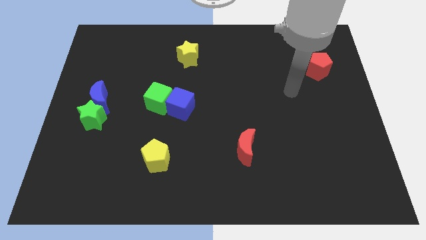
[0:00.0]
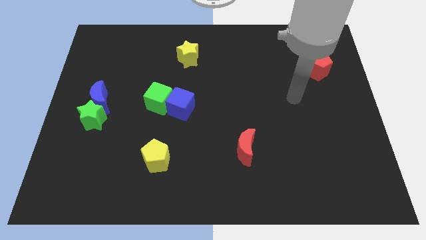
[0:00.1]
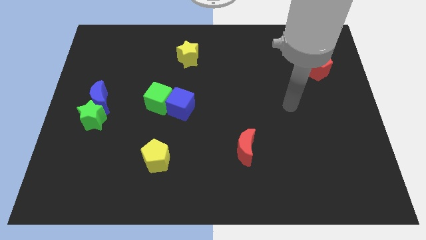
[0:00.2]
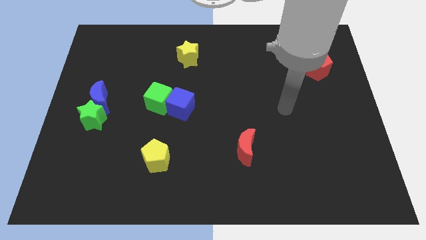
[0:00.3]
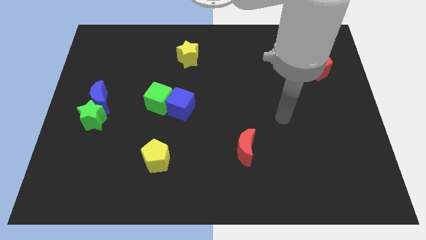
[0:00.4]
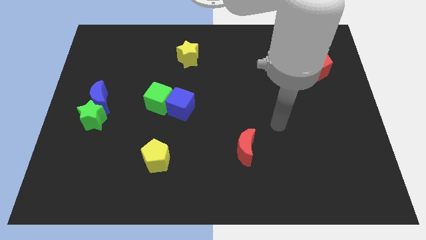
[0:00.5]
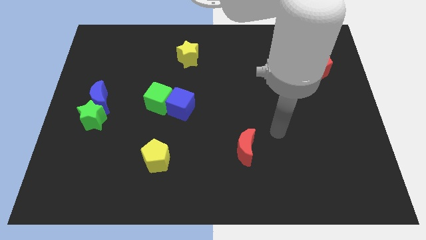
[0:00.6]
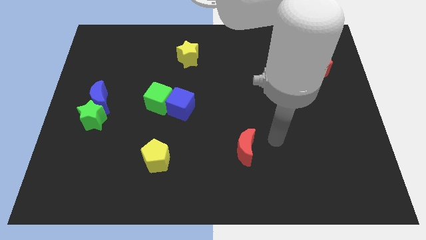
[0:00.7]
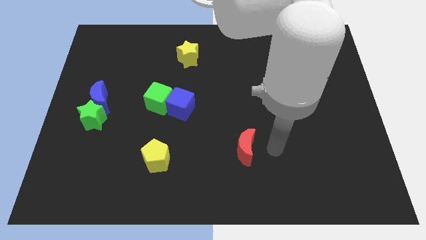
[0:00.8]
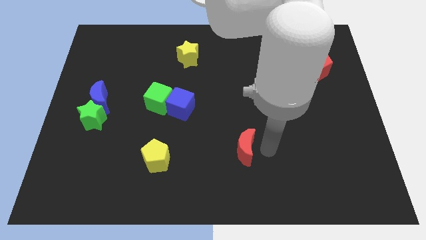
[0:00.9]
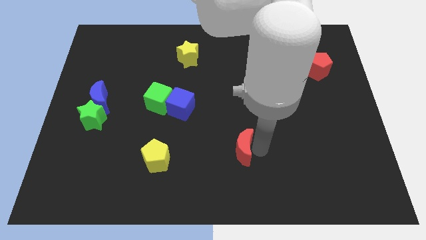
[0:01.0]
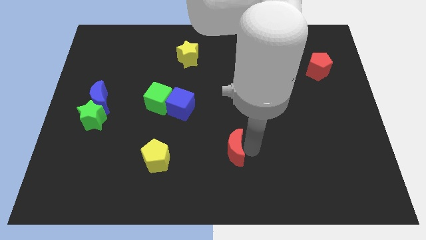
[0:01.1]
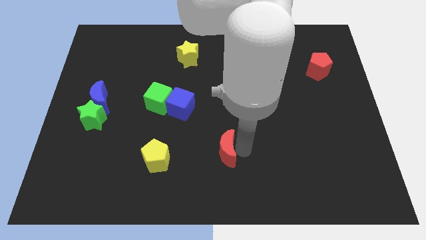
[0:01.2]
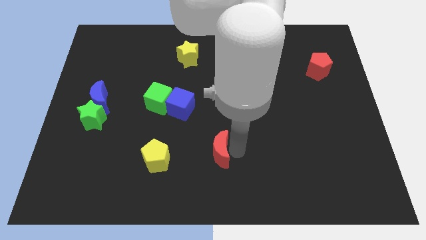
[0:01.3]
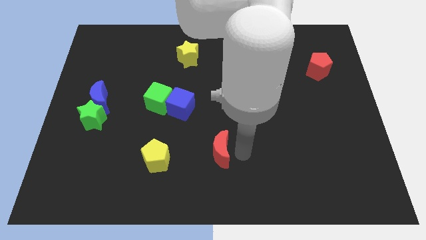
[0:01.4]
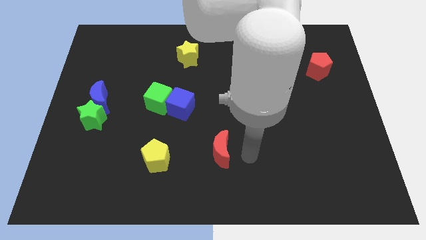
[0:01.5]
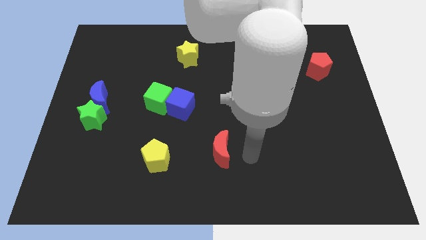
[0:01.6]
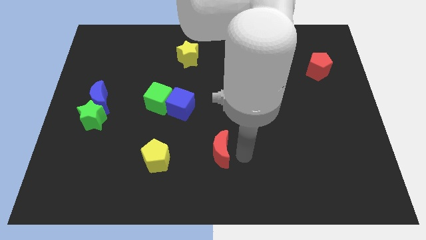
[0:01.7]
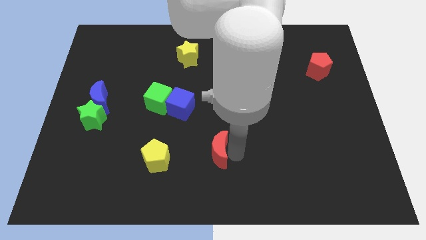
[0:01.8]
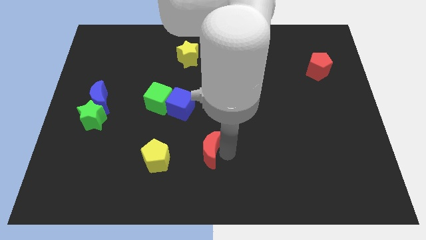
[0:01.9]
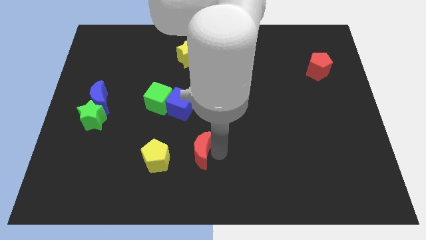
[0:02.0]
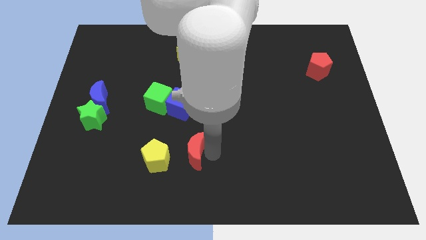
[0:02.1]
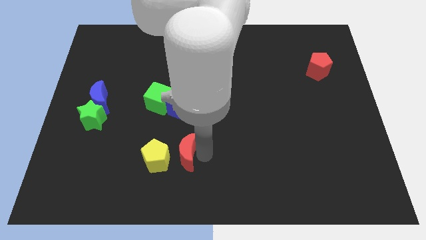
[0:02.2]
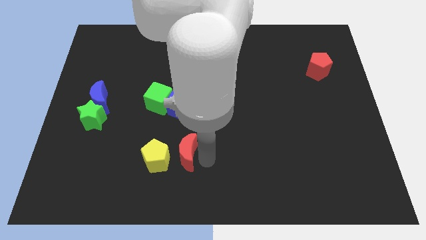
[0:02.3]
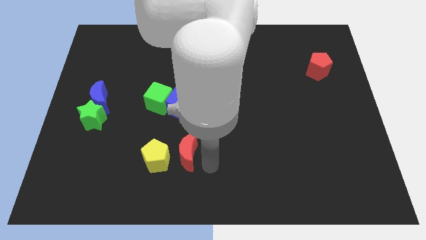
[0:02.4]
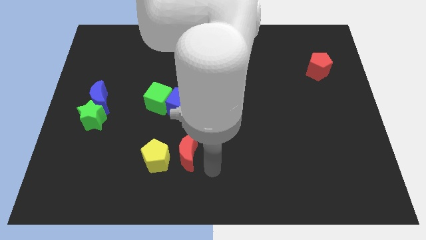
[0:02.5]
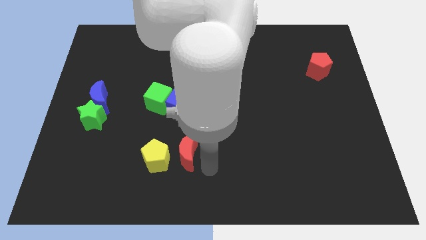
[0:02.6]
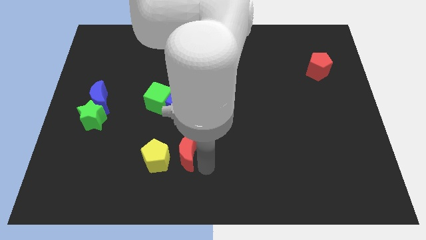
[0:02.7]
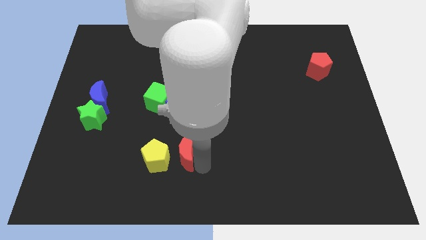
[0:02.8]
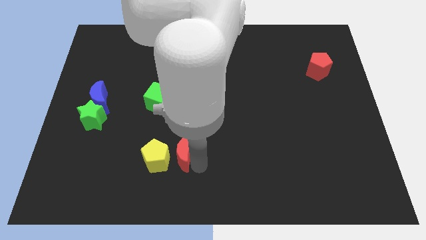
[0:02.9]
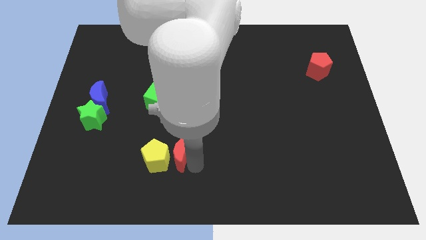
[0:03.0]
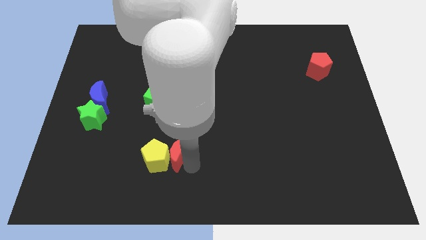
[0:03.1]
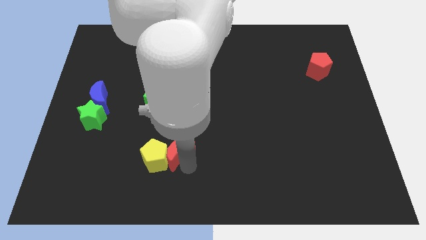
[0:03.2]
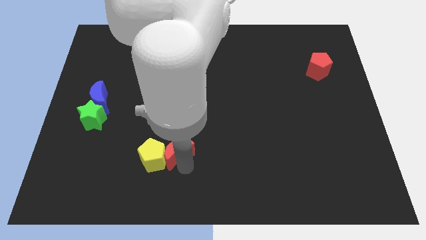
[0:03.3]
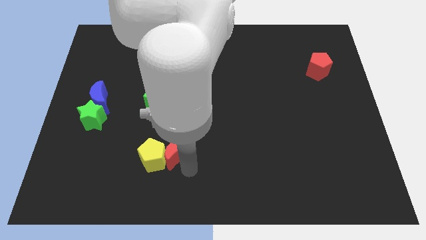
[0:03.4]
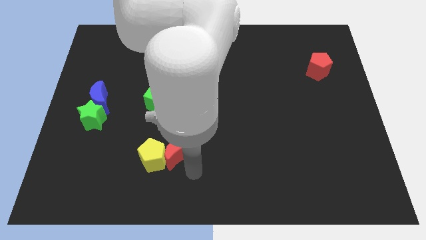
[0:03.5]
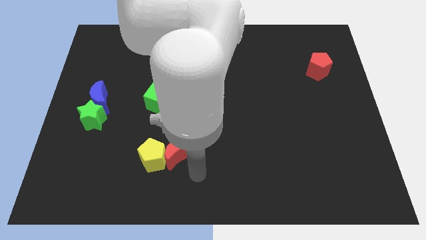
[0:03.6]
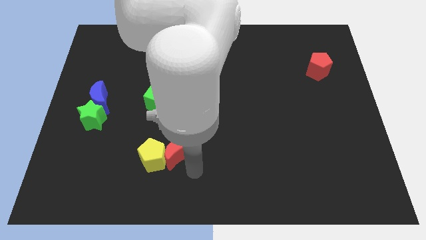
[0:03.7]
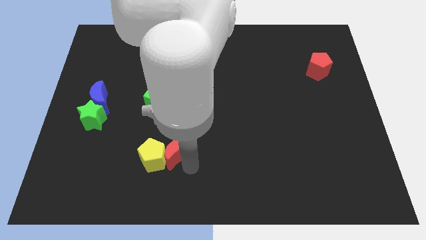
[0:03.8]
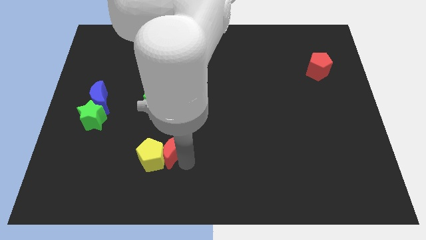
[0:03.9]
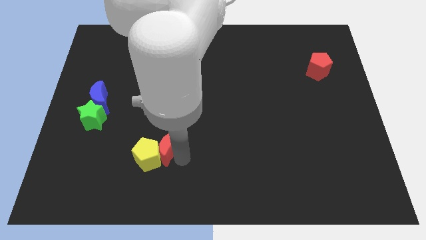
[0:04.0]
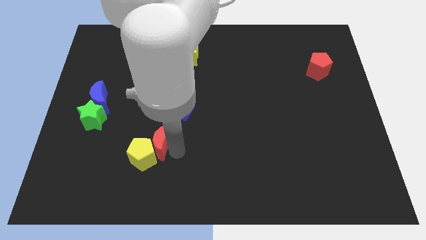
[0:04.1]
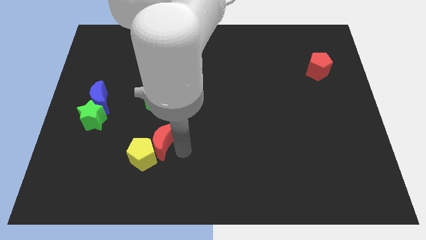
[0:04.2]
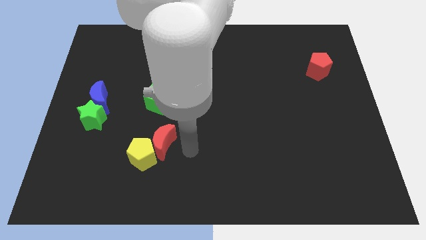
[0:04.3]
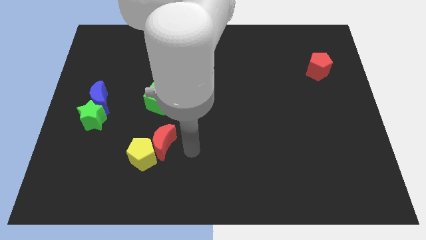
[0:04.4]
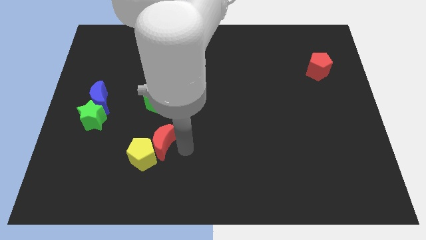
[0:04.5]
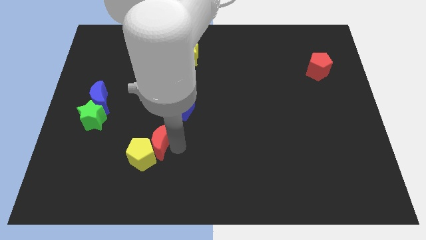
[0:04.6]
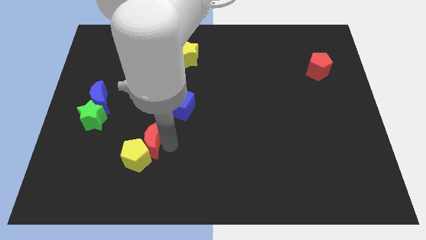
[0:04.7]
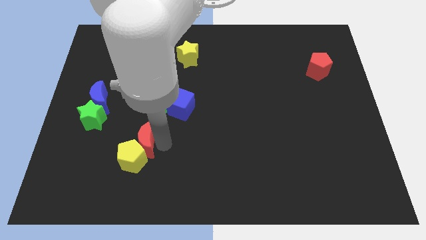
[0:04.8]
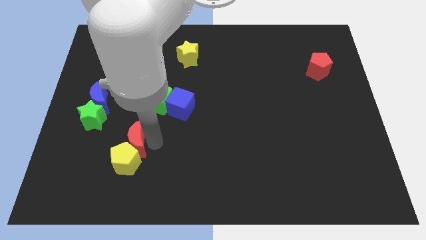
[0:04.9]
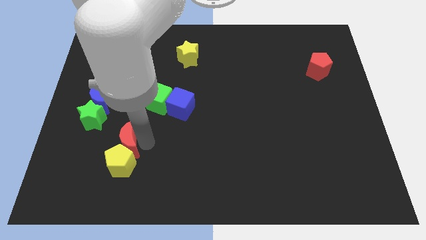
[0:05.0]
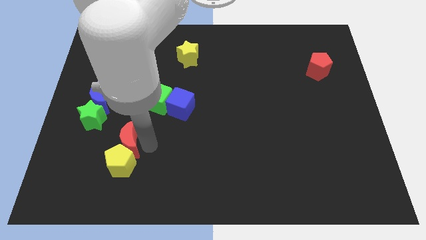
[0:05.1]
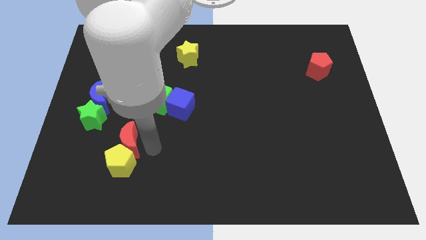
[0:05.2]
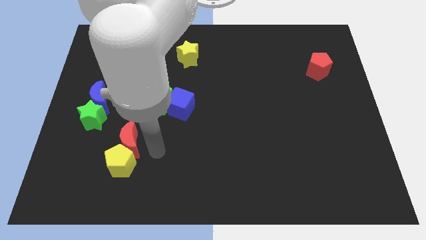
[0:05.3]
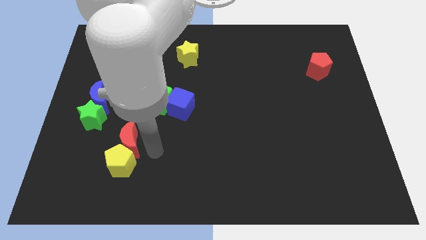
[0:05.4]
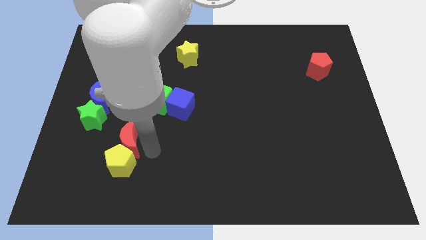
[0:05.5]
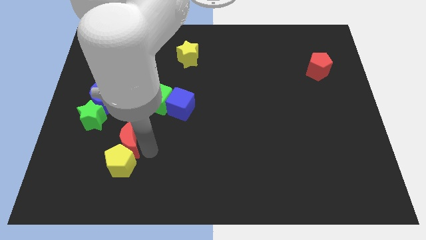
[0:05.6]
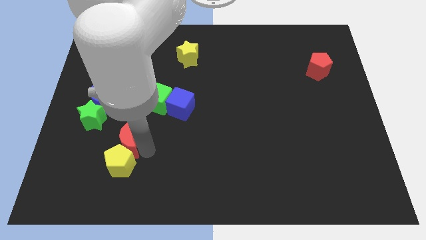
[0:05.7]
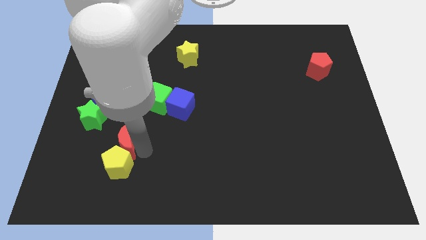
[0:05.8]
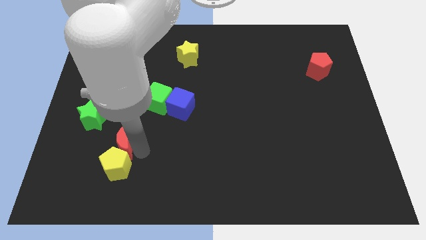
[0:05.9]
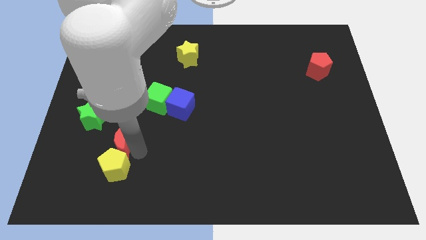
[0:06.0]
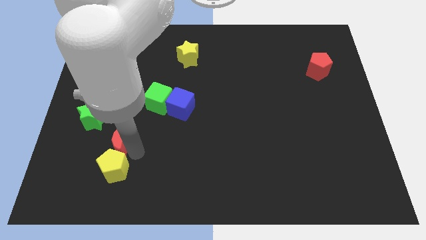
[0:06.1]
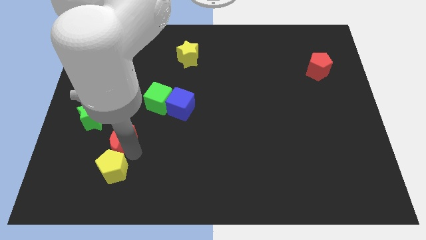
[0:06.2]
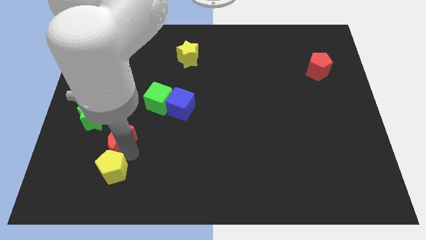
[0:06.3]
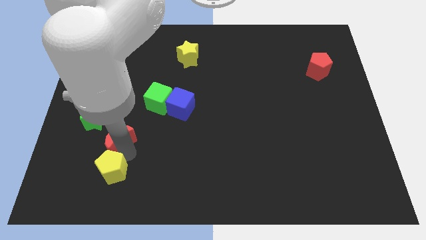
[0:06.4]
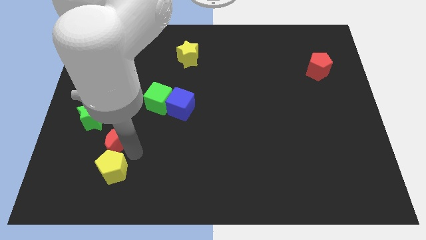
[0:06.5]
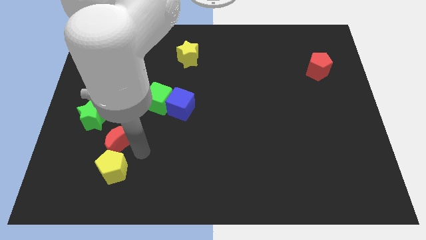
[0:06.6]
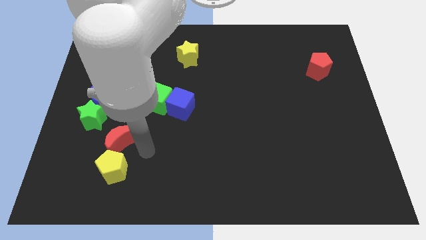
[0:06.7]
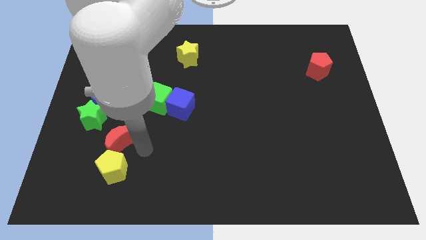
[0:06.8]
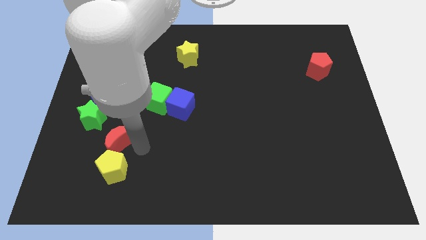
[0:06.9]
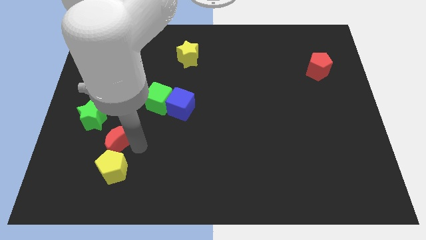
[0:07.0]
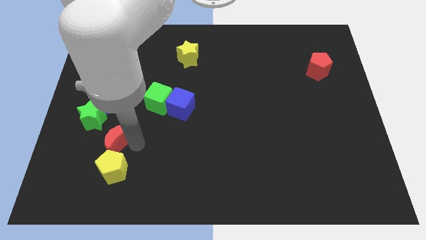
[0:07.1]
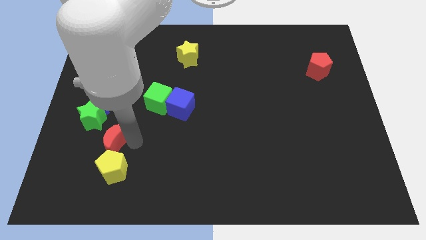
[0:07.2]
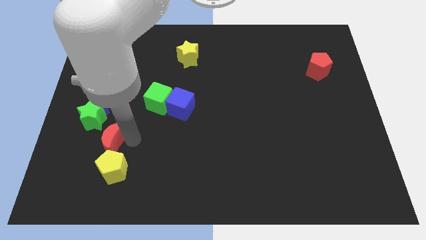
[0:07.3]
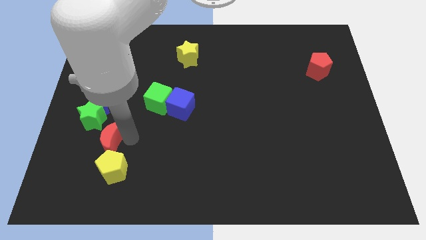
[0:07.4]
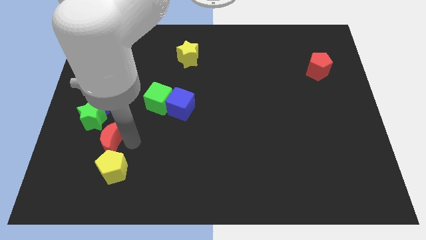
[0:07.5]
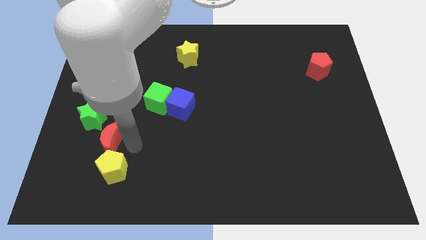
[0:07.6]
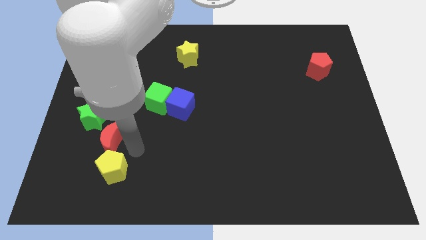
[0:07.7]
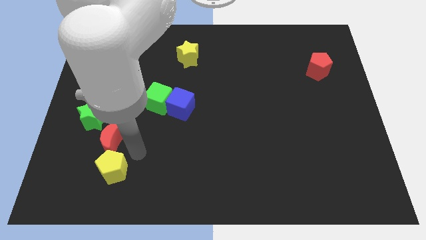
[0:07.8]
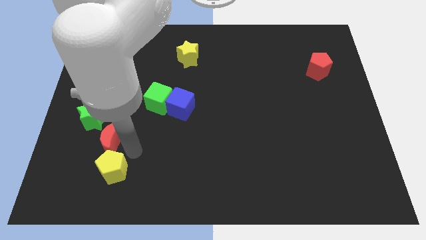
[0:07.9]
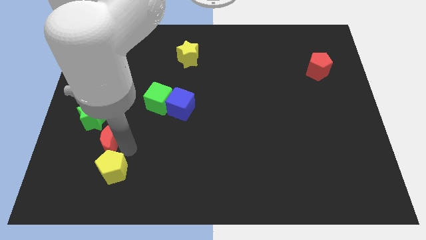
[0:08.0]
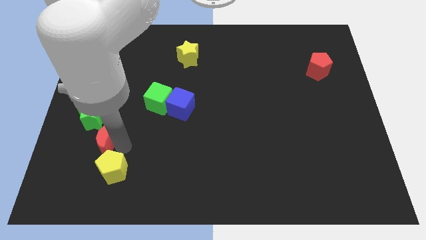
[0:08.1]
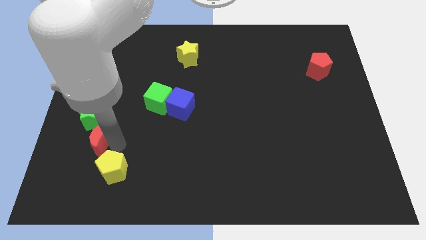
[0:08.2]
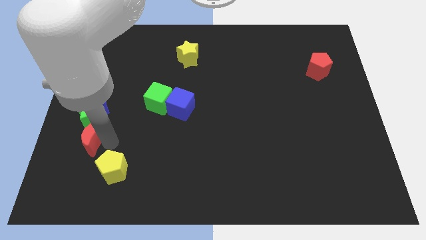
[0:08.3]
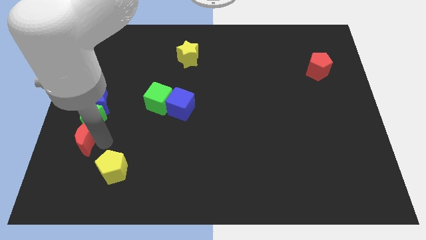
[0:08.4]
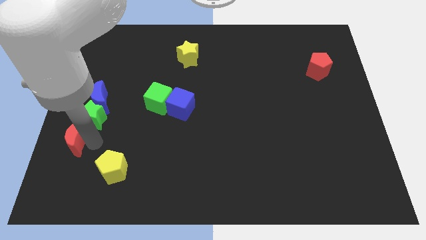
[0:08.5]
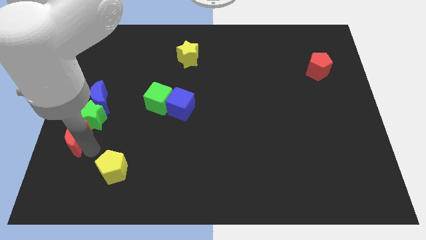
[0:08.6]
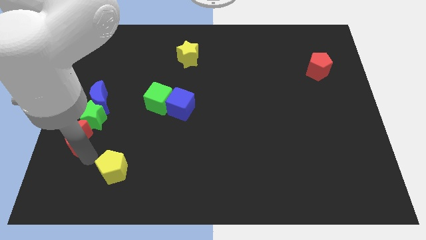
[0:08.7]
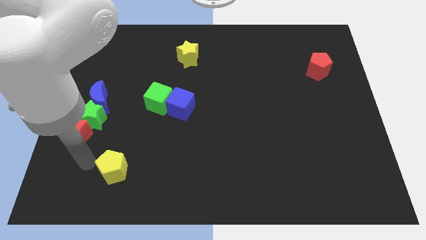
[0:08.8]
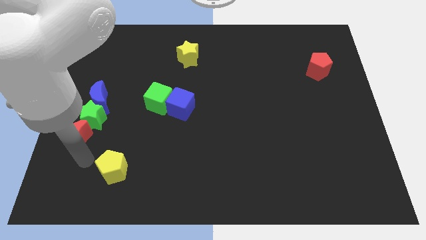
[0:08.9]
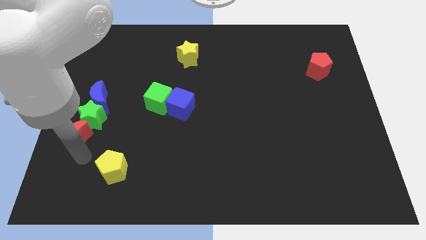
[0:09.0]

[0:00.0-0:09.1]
move the red moon to the center left
